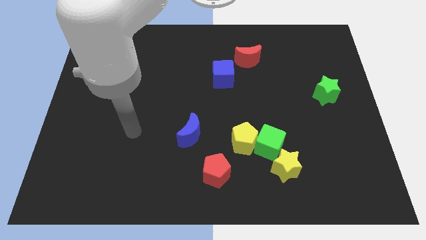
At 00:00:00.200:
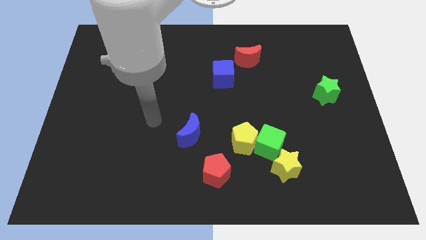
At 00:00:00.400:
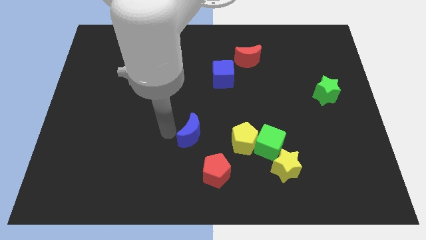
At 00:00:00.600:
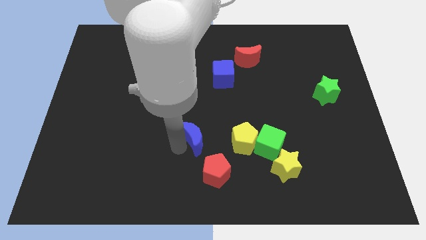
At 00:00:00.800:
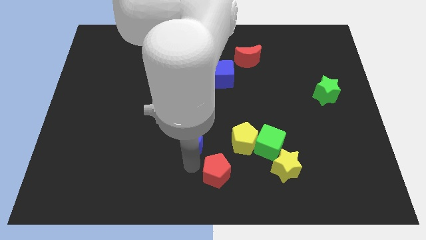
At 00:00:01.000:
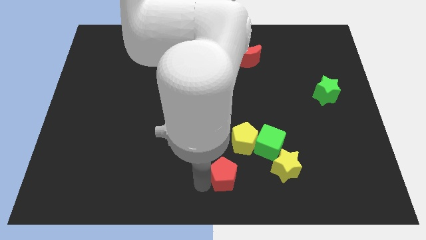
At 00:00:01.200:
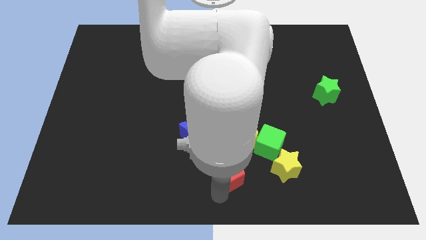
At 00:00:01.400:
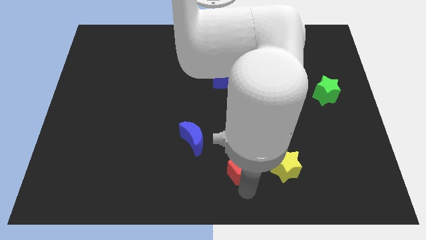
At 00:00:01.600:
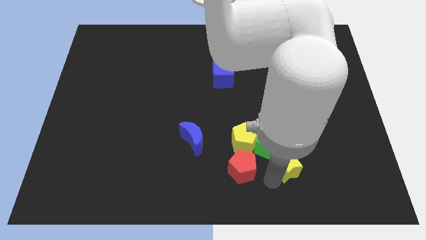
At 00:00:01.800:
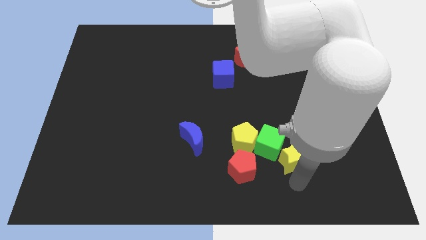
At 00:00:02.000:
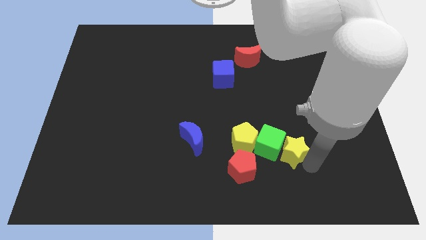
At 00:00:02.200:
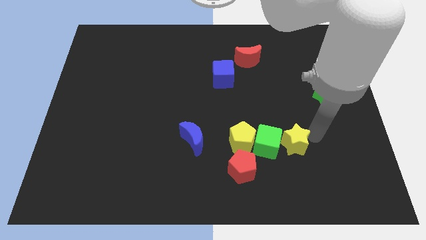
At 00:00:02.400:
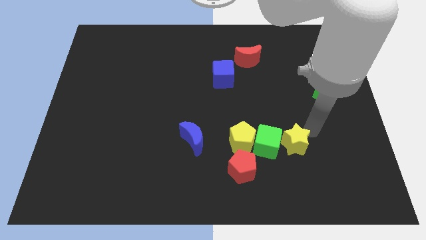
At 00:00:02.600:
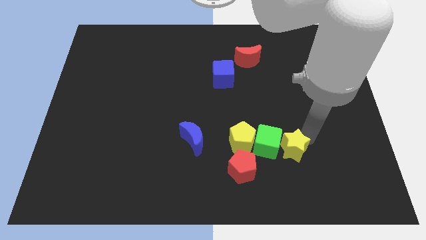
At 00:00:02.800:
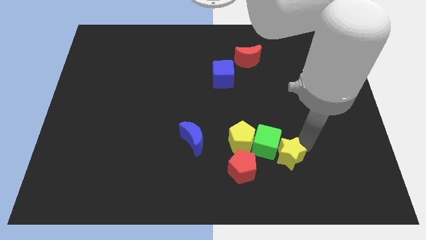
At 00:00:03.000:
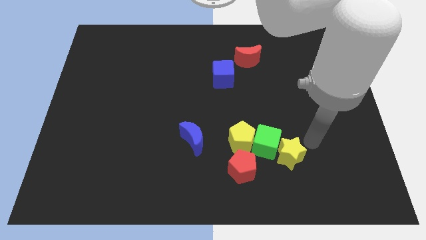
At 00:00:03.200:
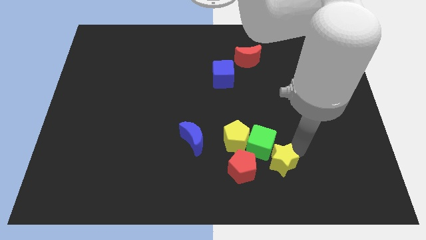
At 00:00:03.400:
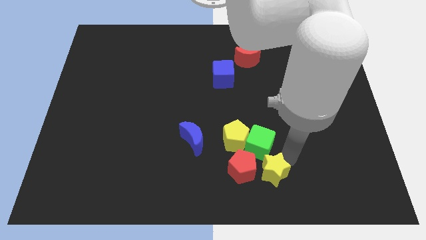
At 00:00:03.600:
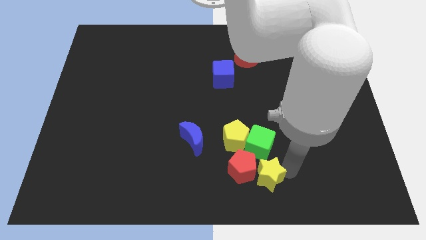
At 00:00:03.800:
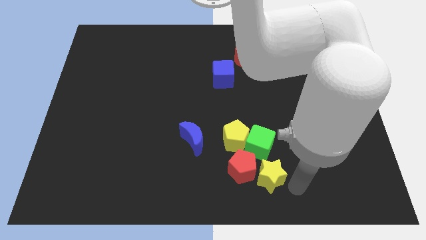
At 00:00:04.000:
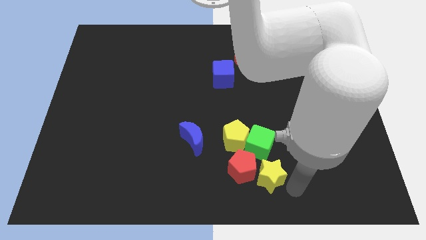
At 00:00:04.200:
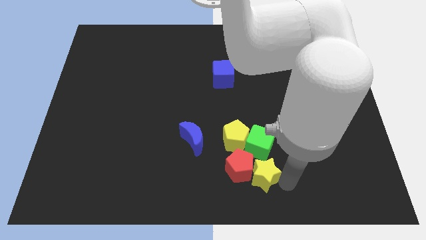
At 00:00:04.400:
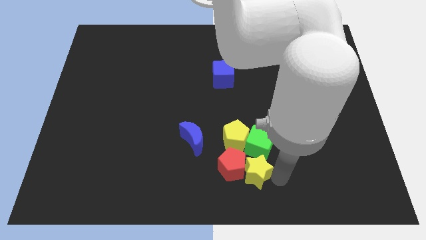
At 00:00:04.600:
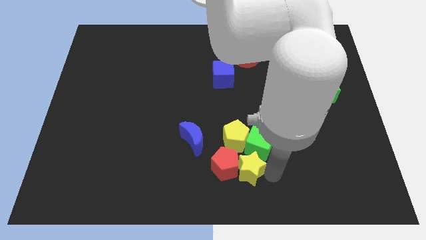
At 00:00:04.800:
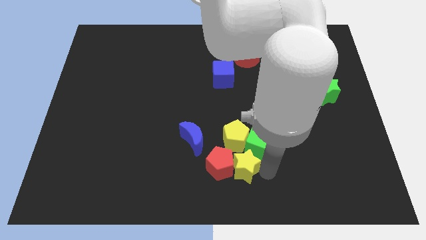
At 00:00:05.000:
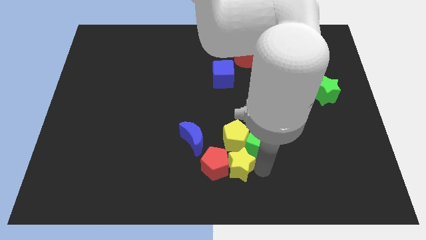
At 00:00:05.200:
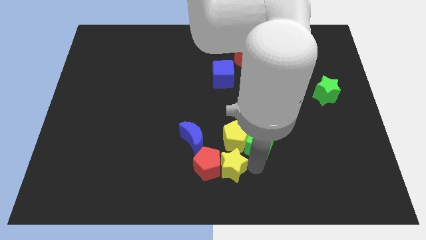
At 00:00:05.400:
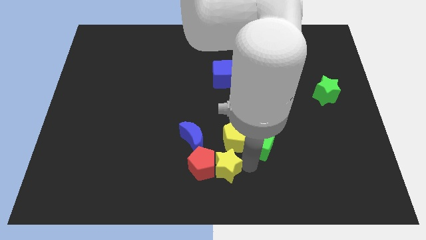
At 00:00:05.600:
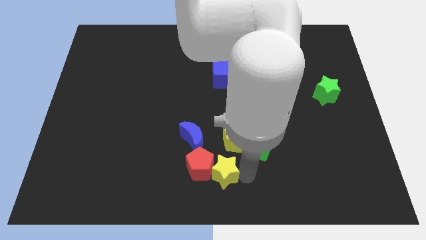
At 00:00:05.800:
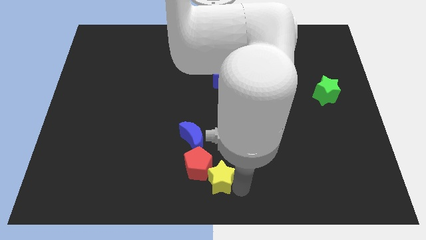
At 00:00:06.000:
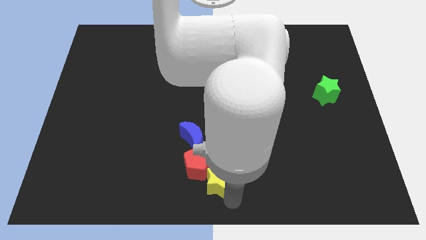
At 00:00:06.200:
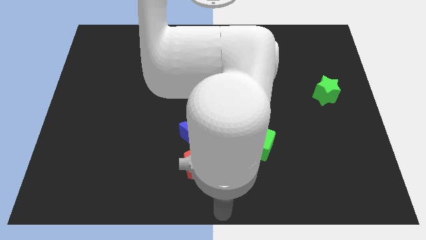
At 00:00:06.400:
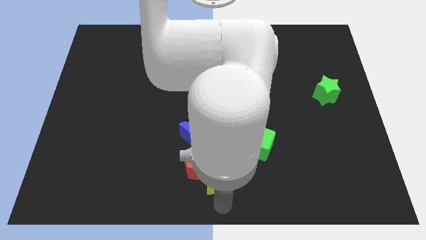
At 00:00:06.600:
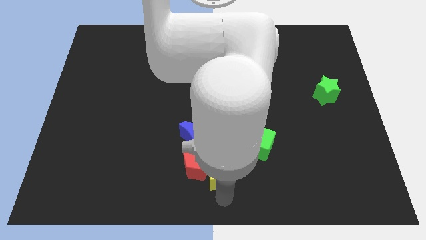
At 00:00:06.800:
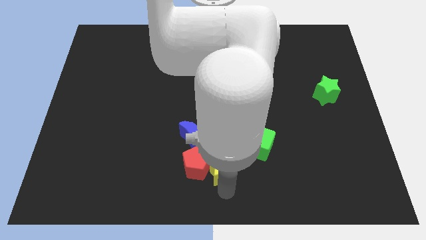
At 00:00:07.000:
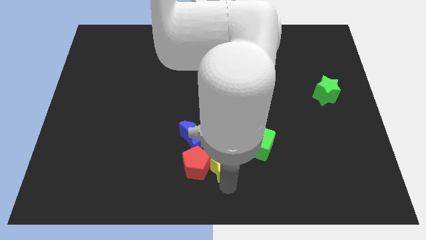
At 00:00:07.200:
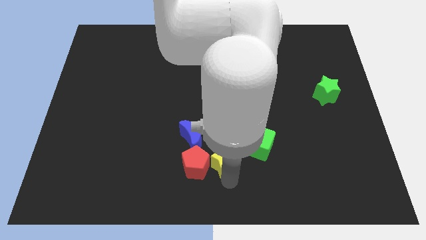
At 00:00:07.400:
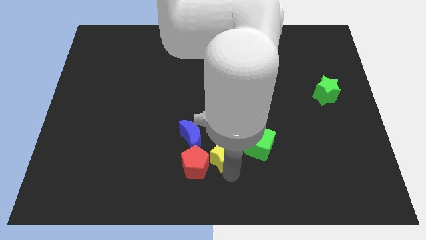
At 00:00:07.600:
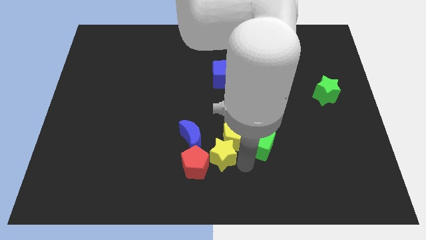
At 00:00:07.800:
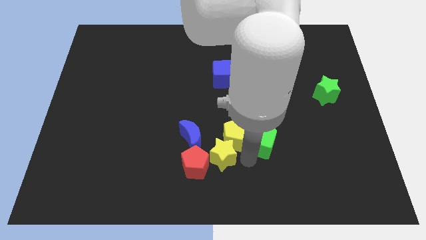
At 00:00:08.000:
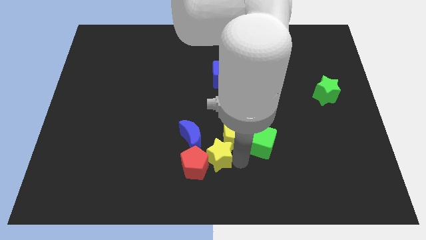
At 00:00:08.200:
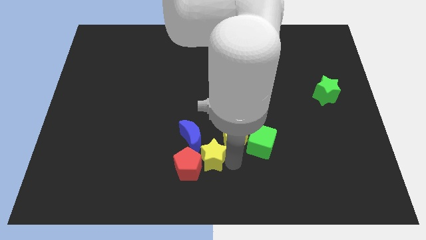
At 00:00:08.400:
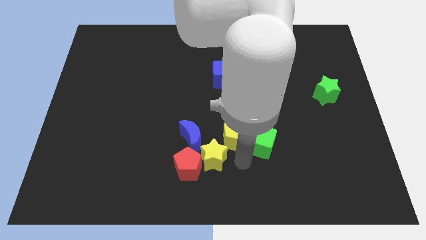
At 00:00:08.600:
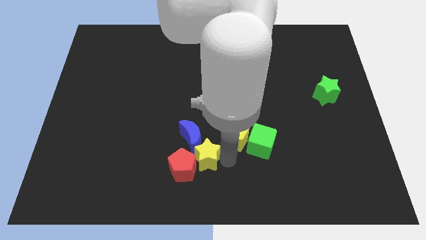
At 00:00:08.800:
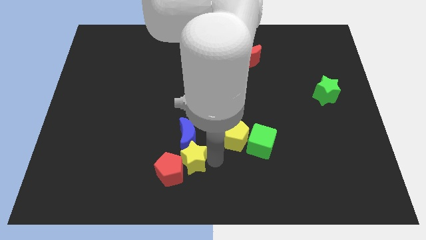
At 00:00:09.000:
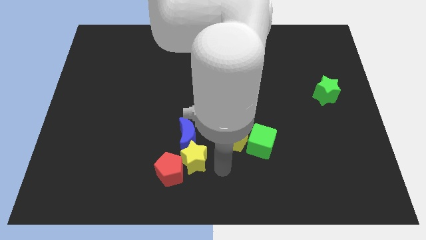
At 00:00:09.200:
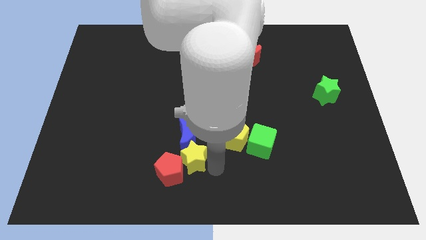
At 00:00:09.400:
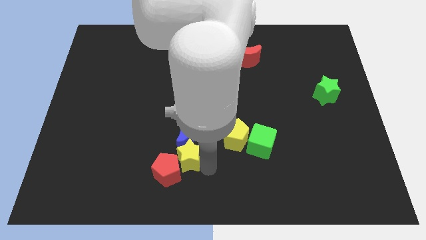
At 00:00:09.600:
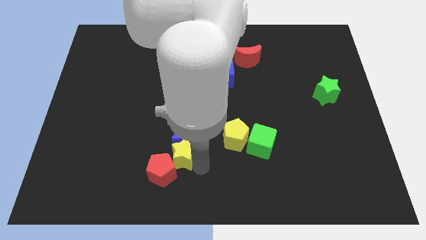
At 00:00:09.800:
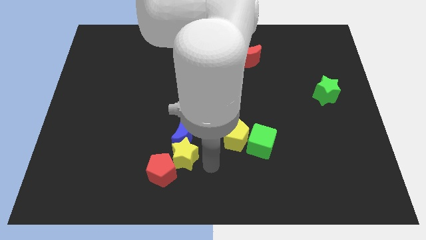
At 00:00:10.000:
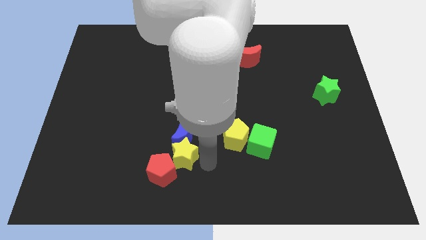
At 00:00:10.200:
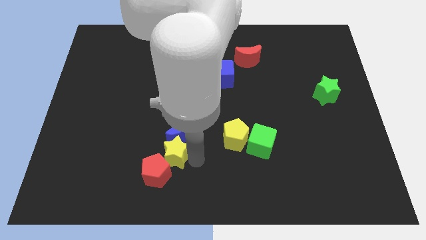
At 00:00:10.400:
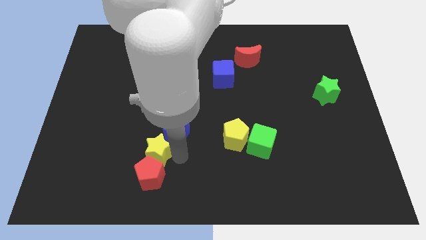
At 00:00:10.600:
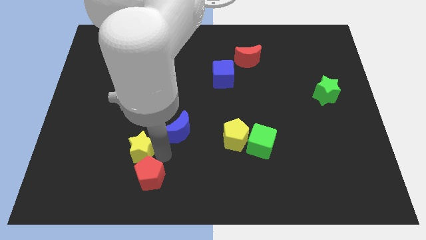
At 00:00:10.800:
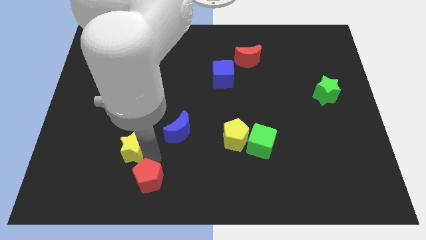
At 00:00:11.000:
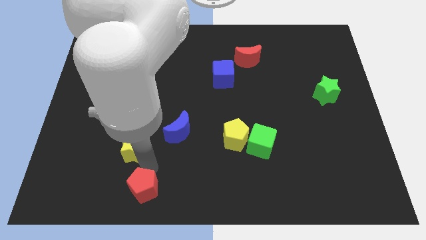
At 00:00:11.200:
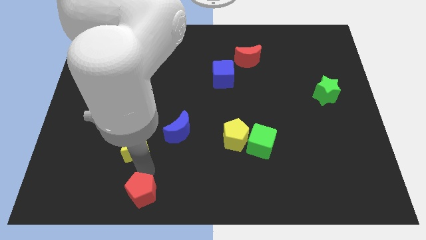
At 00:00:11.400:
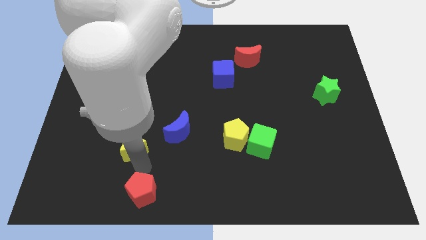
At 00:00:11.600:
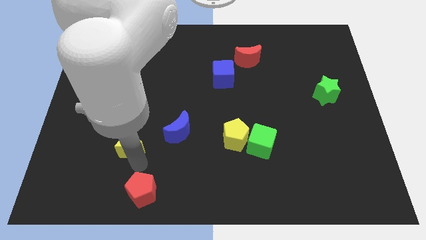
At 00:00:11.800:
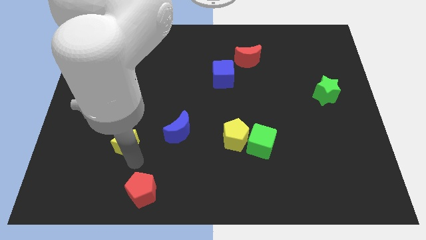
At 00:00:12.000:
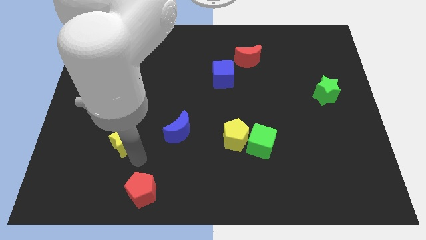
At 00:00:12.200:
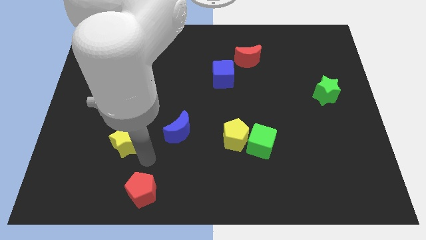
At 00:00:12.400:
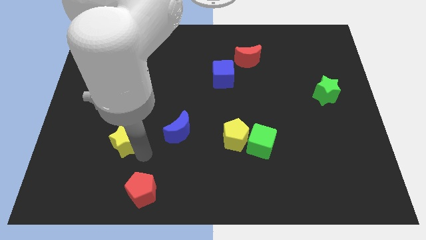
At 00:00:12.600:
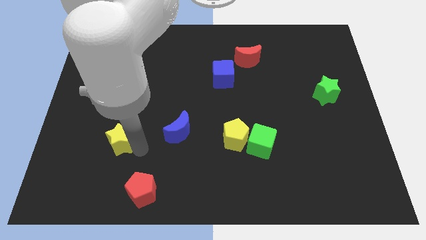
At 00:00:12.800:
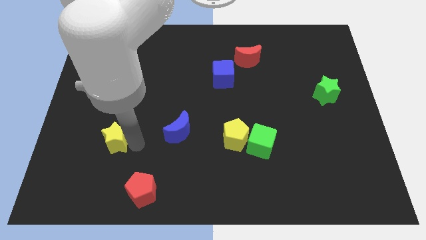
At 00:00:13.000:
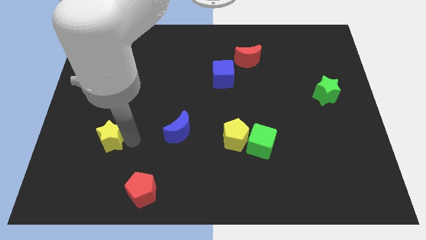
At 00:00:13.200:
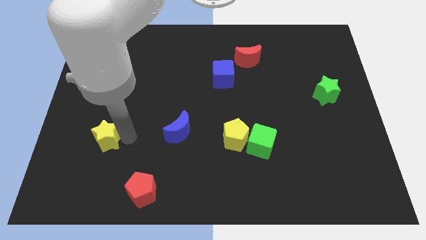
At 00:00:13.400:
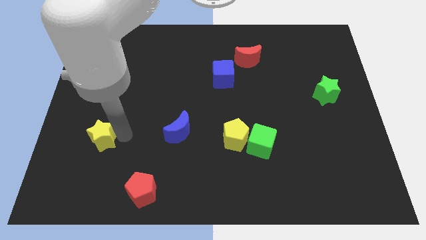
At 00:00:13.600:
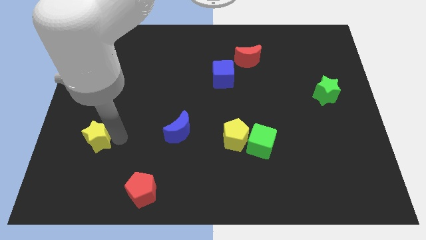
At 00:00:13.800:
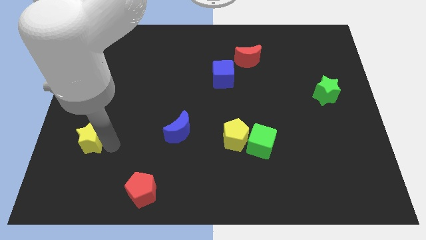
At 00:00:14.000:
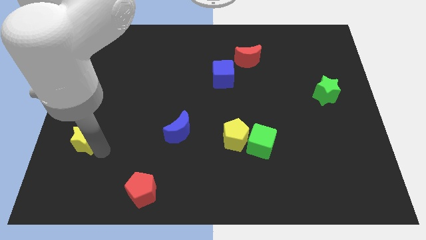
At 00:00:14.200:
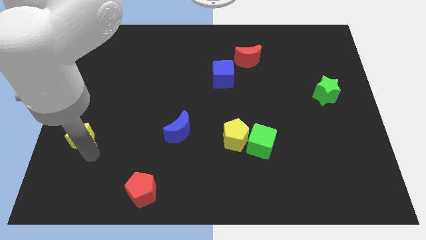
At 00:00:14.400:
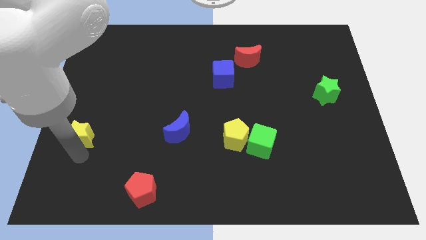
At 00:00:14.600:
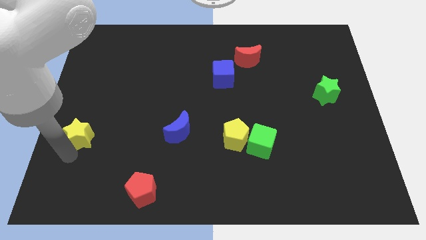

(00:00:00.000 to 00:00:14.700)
slide the yellow star to the center left
